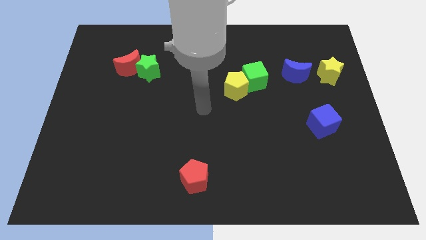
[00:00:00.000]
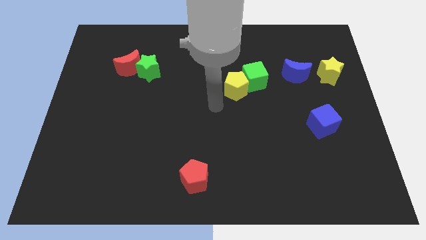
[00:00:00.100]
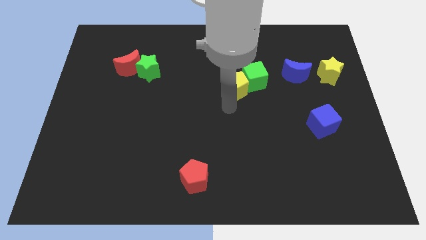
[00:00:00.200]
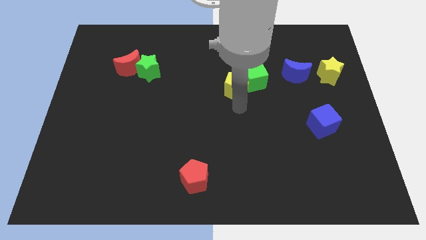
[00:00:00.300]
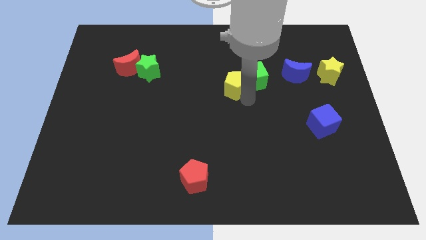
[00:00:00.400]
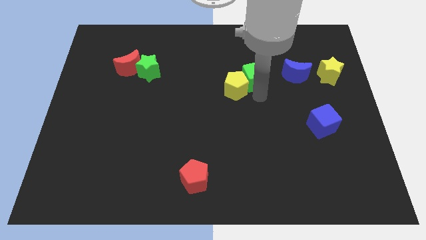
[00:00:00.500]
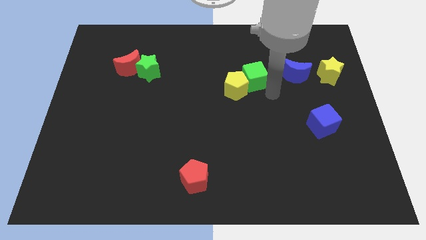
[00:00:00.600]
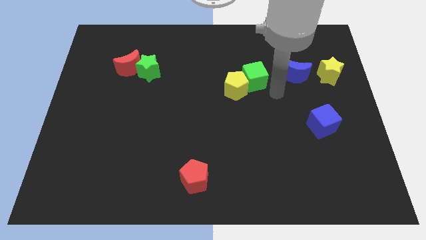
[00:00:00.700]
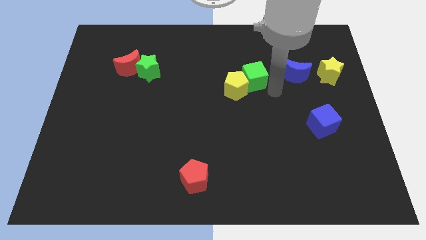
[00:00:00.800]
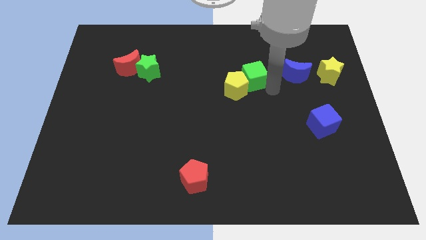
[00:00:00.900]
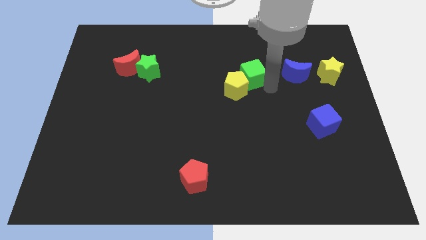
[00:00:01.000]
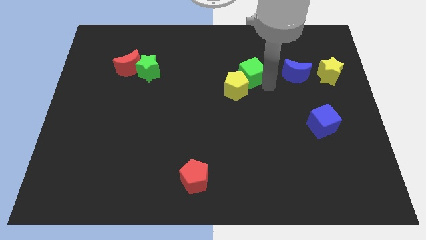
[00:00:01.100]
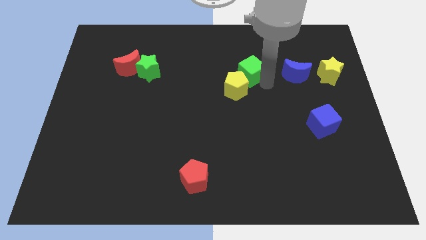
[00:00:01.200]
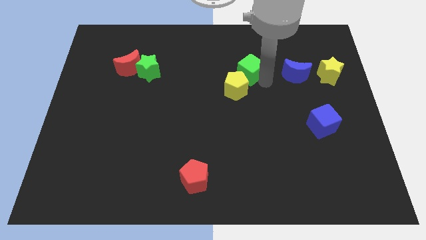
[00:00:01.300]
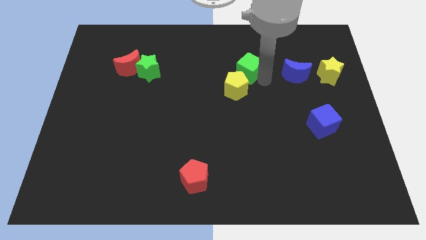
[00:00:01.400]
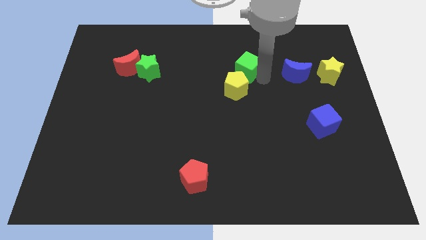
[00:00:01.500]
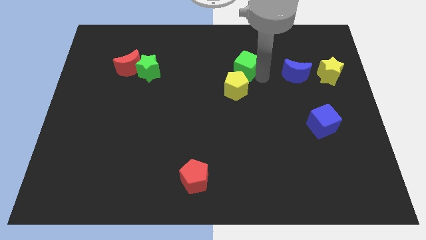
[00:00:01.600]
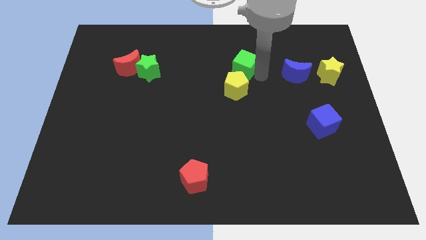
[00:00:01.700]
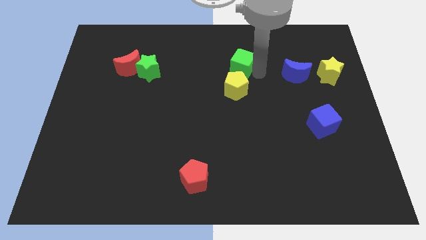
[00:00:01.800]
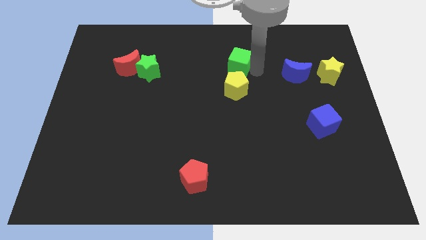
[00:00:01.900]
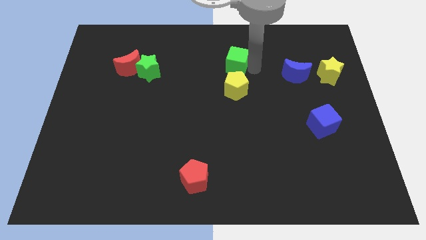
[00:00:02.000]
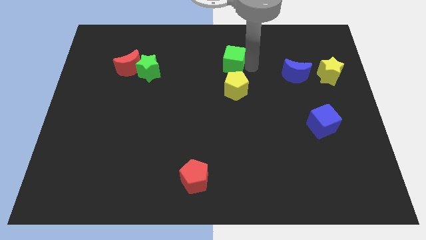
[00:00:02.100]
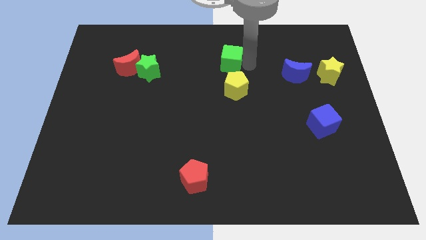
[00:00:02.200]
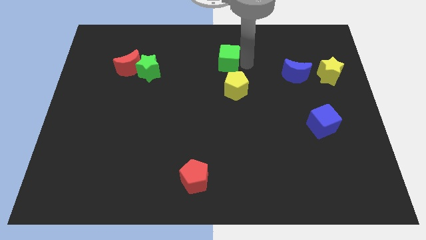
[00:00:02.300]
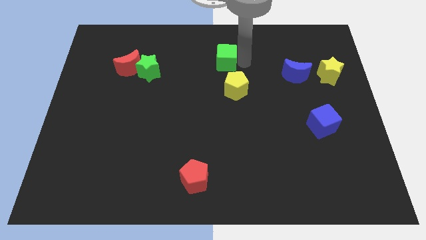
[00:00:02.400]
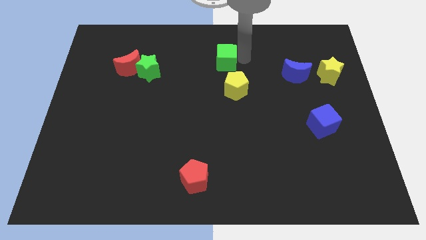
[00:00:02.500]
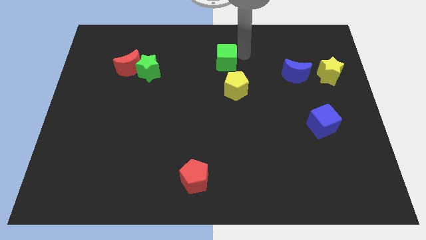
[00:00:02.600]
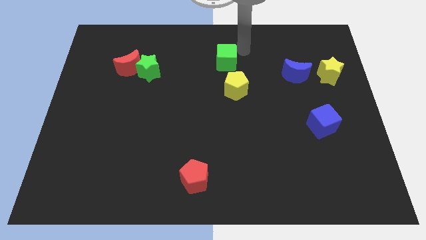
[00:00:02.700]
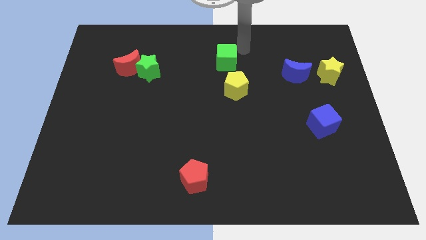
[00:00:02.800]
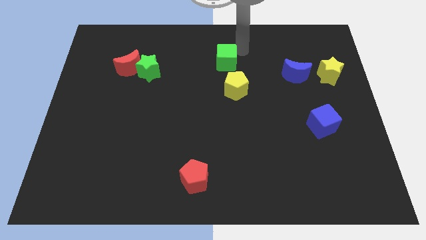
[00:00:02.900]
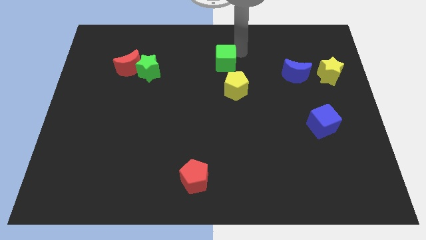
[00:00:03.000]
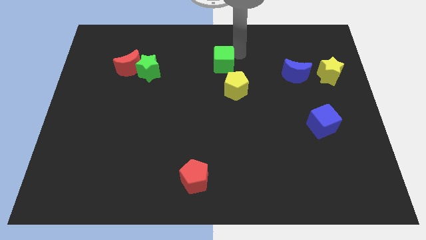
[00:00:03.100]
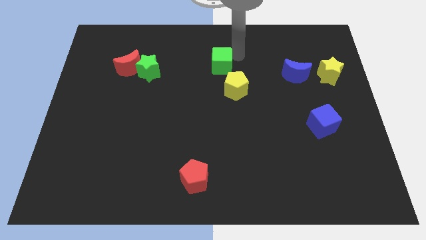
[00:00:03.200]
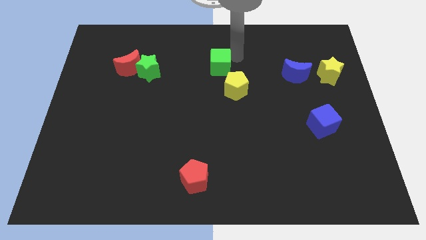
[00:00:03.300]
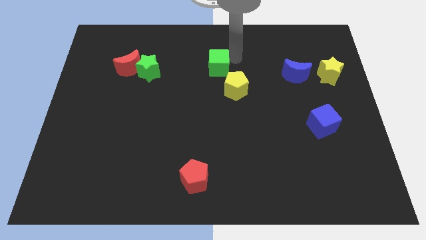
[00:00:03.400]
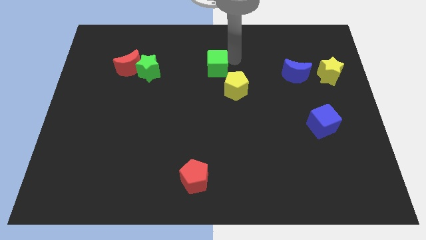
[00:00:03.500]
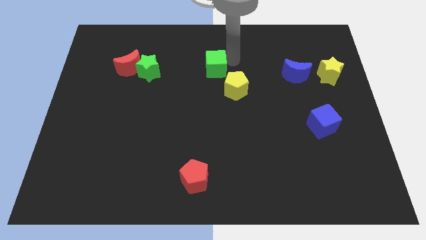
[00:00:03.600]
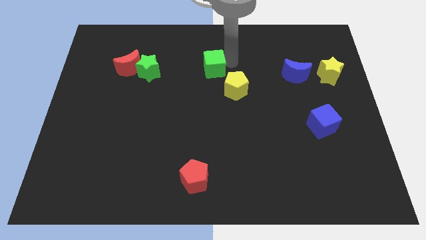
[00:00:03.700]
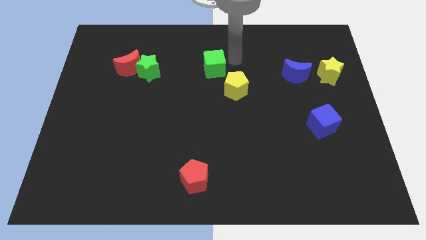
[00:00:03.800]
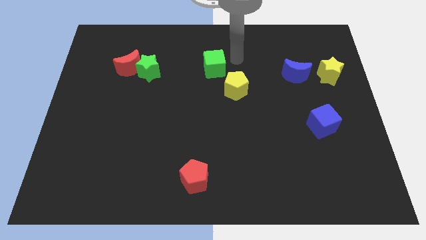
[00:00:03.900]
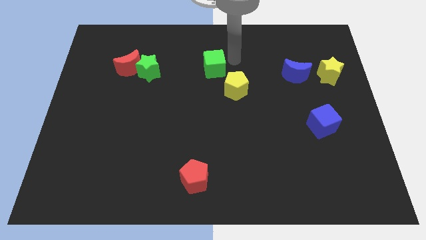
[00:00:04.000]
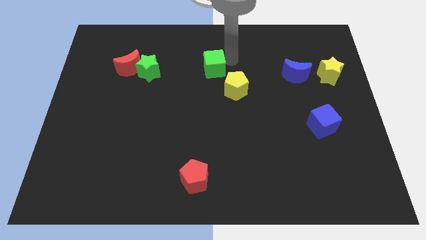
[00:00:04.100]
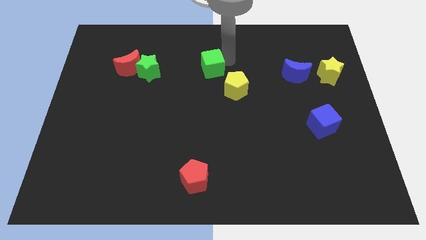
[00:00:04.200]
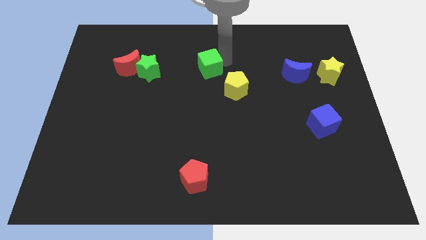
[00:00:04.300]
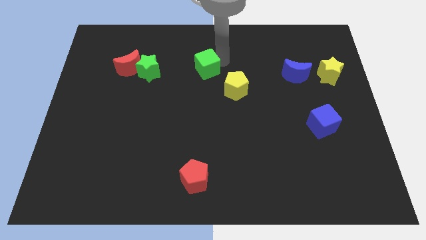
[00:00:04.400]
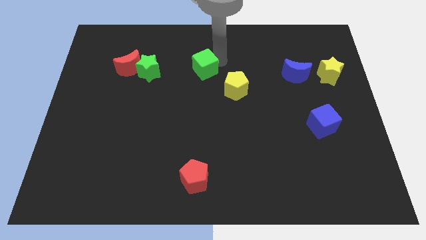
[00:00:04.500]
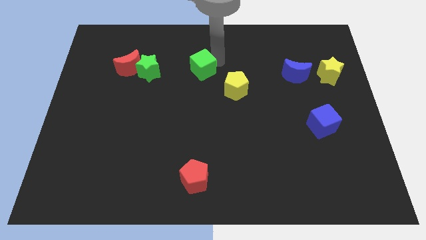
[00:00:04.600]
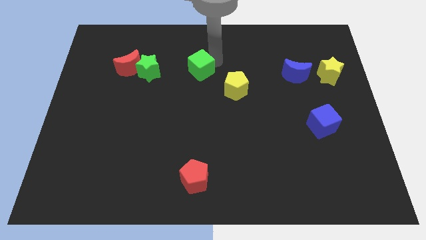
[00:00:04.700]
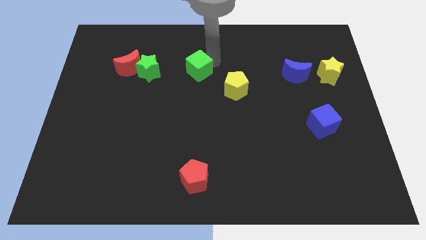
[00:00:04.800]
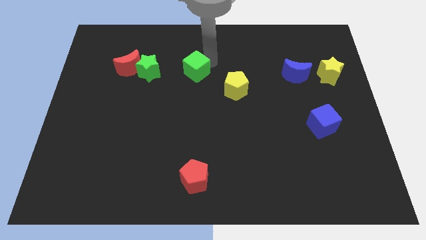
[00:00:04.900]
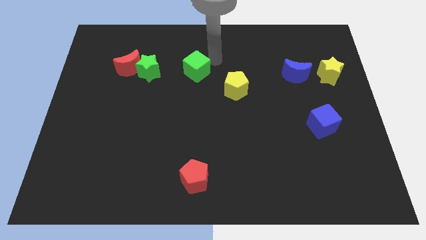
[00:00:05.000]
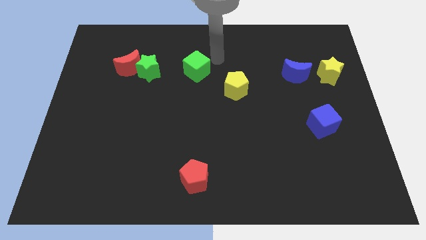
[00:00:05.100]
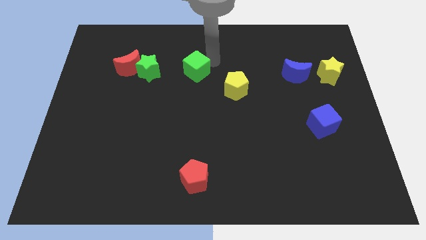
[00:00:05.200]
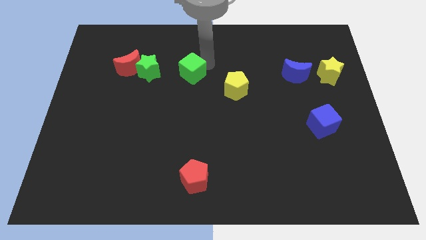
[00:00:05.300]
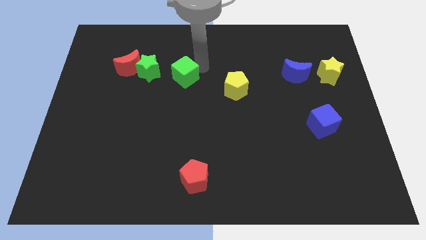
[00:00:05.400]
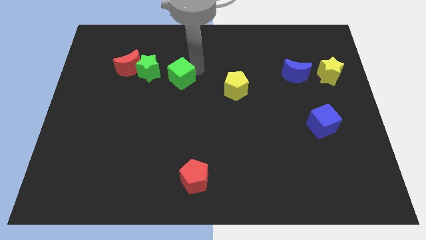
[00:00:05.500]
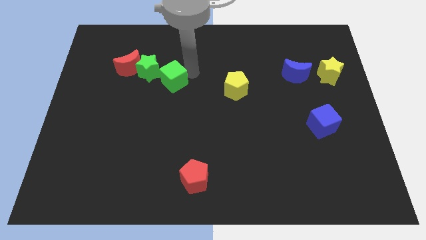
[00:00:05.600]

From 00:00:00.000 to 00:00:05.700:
push the green cube left

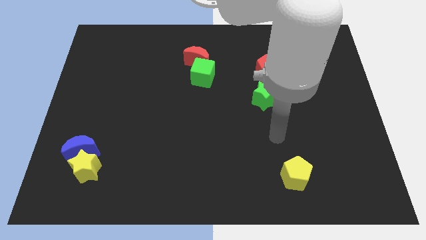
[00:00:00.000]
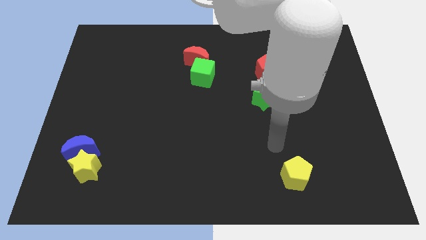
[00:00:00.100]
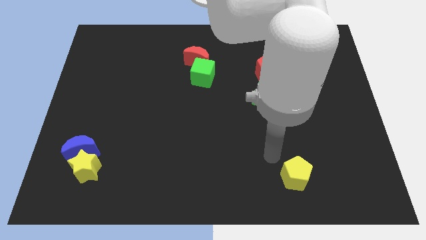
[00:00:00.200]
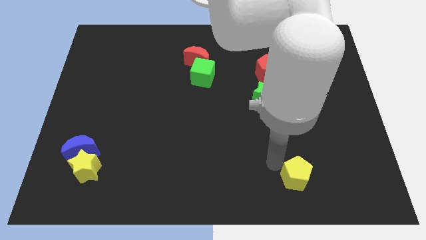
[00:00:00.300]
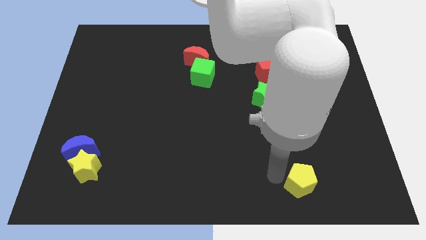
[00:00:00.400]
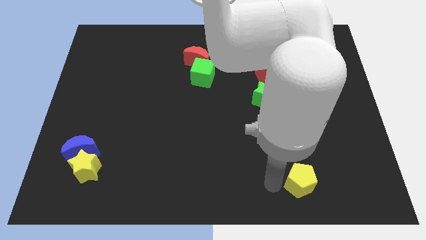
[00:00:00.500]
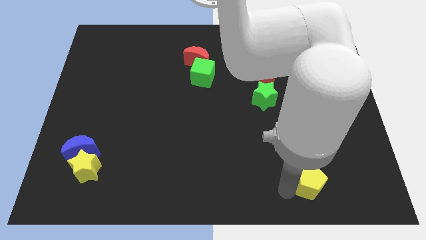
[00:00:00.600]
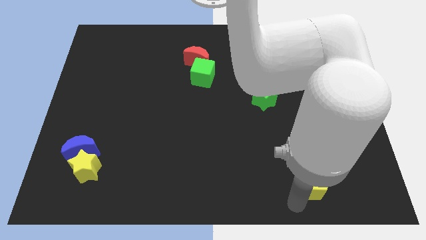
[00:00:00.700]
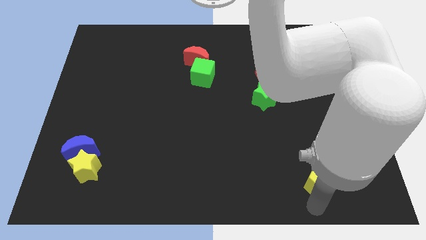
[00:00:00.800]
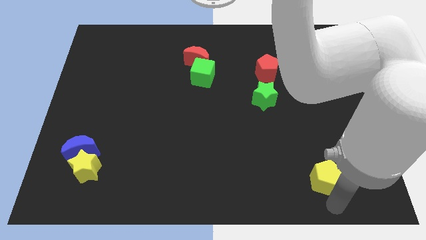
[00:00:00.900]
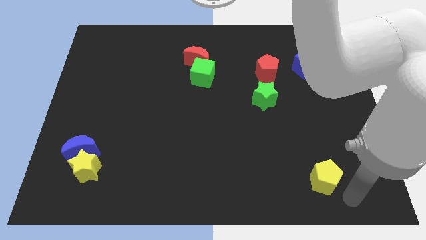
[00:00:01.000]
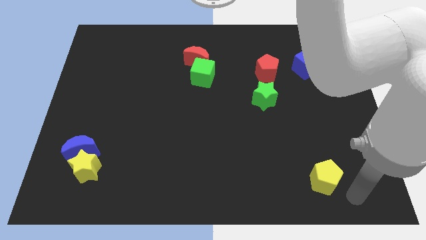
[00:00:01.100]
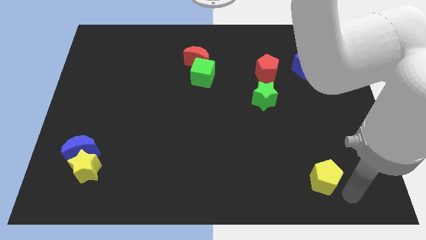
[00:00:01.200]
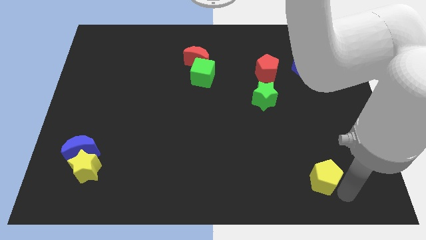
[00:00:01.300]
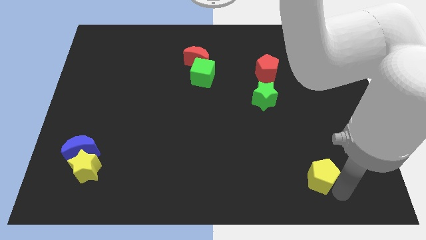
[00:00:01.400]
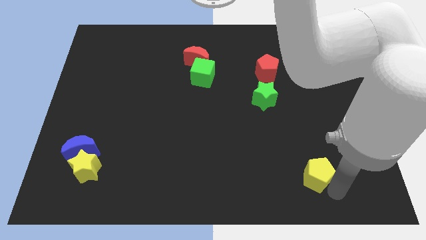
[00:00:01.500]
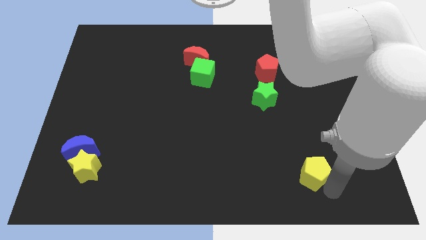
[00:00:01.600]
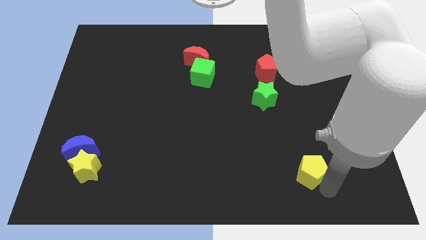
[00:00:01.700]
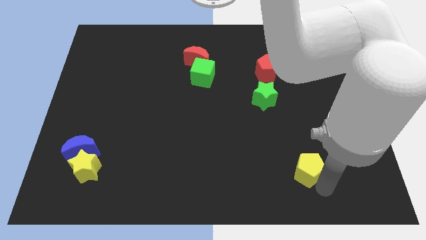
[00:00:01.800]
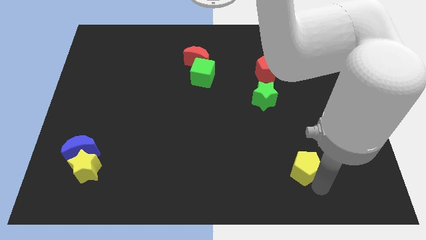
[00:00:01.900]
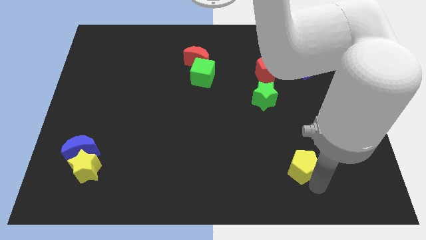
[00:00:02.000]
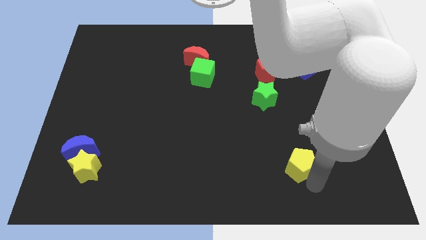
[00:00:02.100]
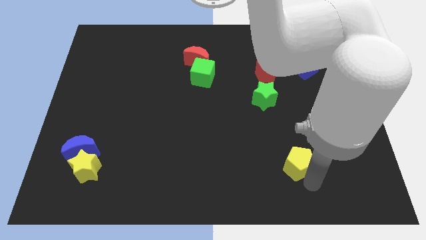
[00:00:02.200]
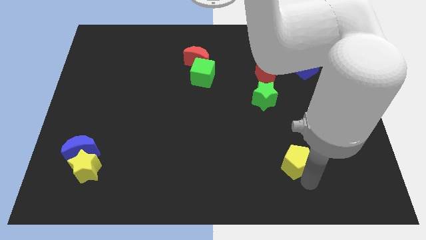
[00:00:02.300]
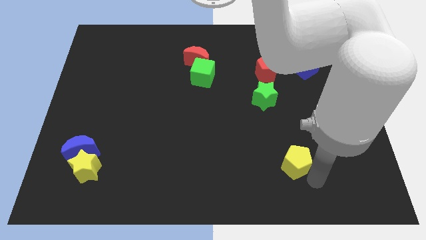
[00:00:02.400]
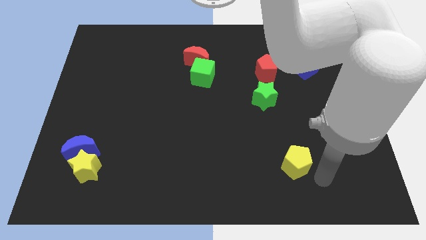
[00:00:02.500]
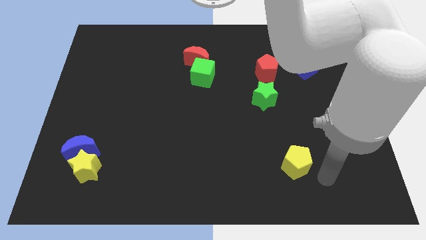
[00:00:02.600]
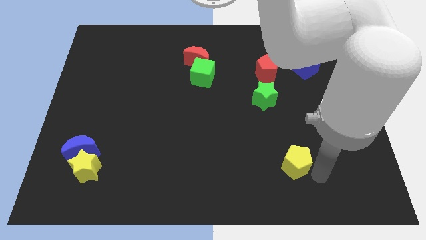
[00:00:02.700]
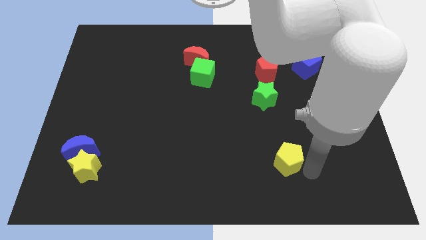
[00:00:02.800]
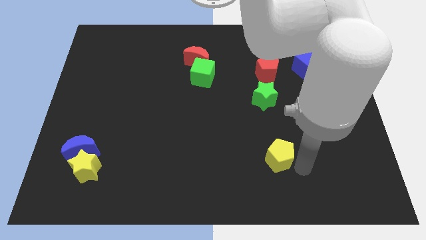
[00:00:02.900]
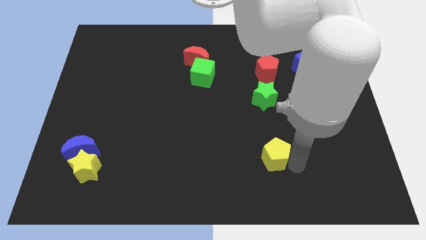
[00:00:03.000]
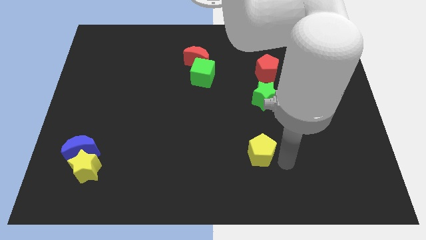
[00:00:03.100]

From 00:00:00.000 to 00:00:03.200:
push the yellow pentagon a bit diagonally upwards and left
